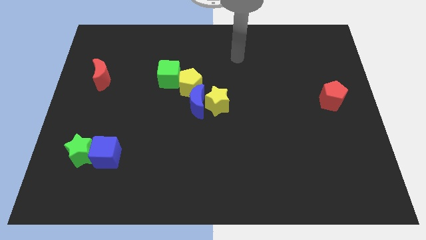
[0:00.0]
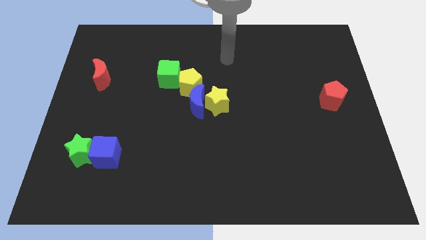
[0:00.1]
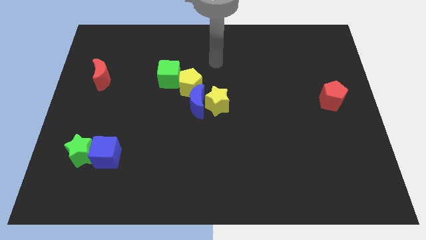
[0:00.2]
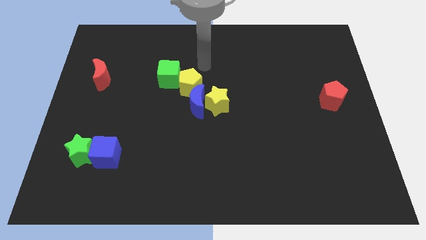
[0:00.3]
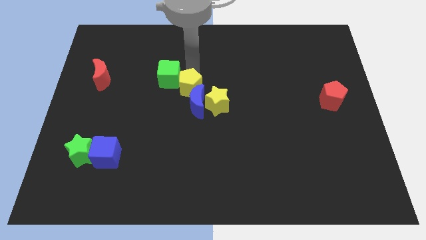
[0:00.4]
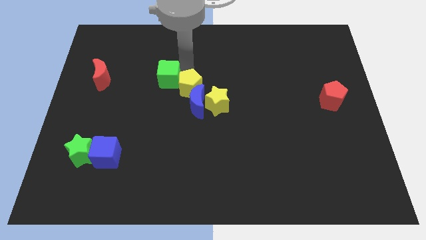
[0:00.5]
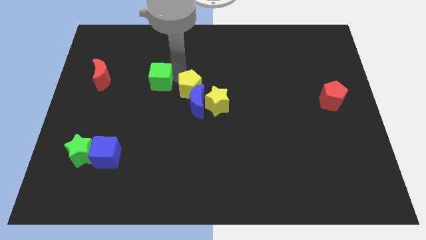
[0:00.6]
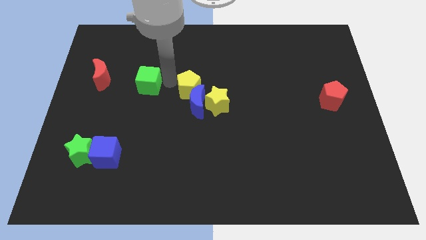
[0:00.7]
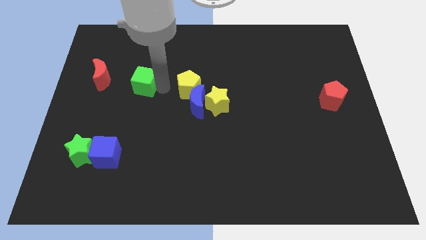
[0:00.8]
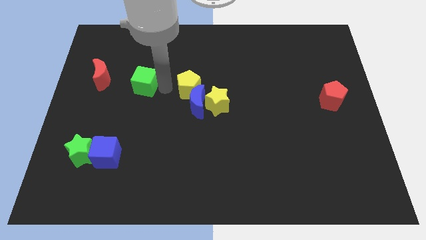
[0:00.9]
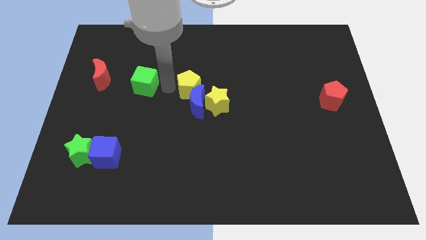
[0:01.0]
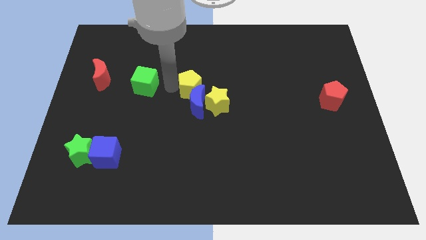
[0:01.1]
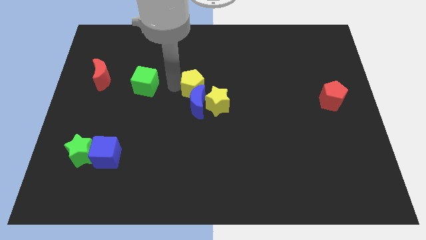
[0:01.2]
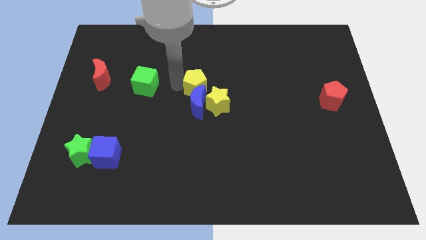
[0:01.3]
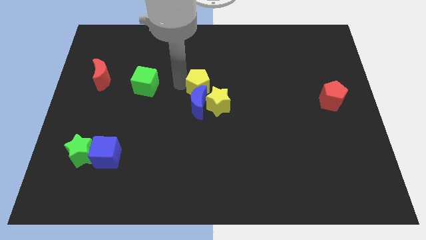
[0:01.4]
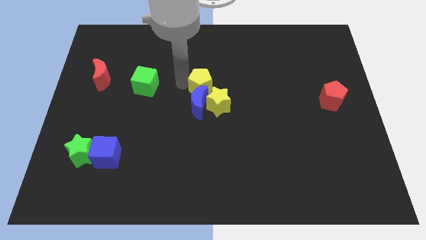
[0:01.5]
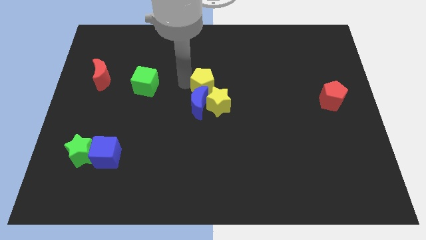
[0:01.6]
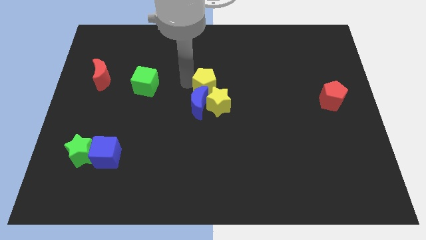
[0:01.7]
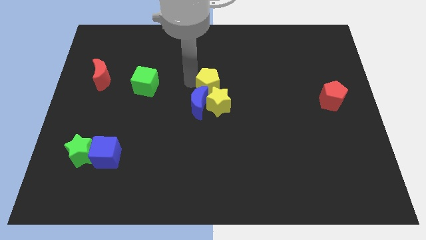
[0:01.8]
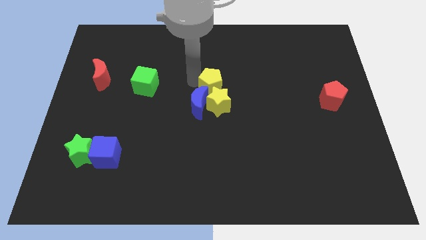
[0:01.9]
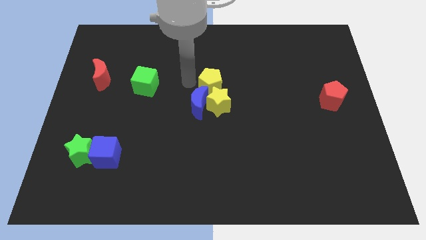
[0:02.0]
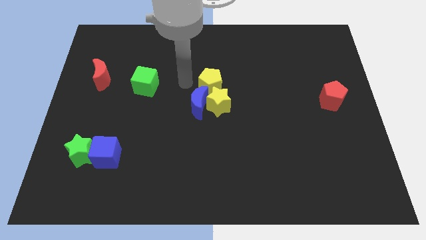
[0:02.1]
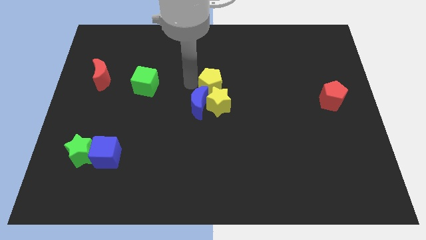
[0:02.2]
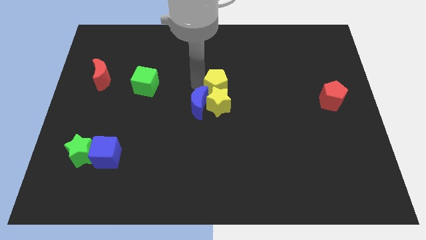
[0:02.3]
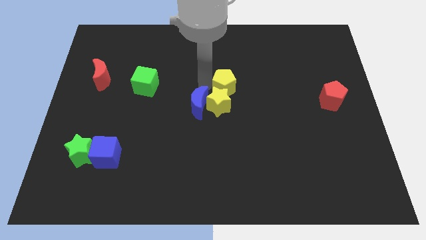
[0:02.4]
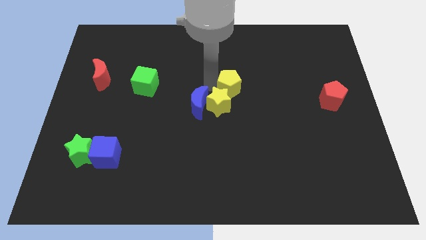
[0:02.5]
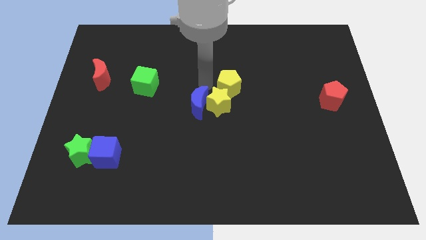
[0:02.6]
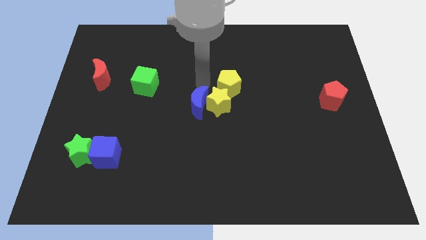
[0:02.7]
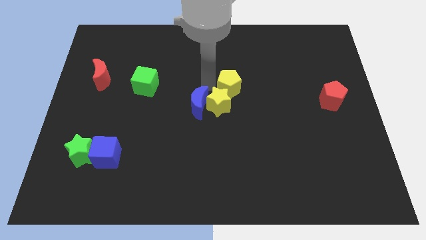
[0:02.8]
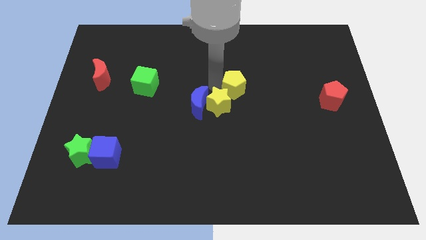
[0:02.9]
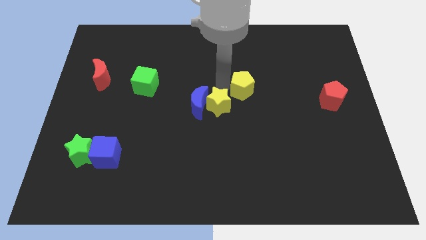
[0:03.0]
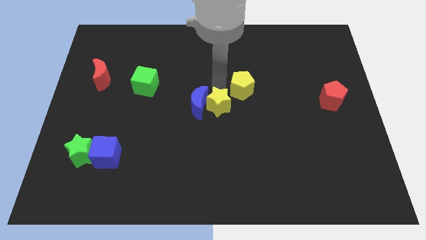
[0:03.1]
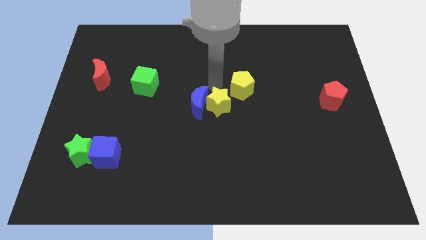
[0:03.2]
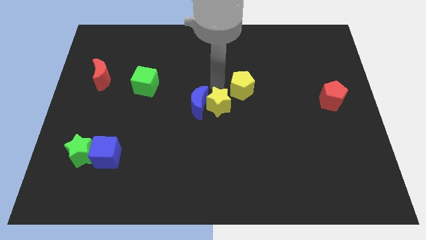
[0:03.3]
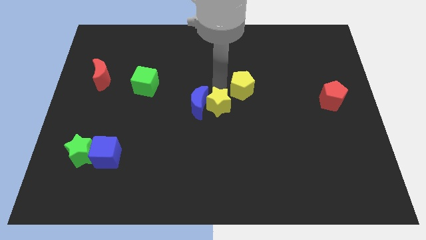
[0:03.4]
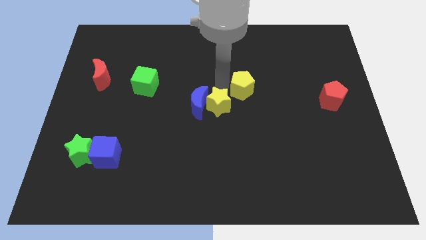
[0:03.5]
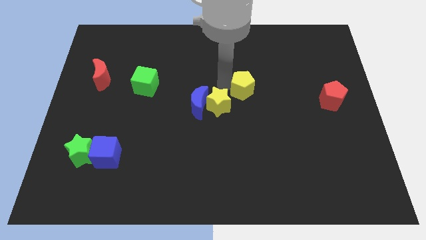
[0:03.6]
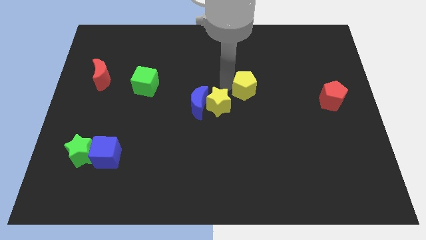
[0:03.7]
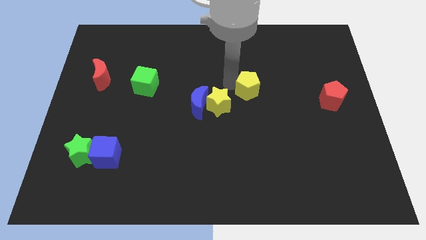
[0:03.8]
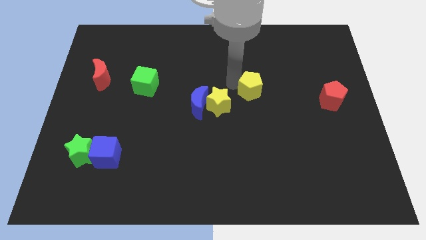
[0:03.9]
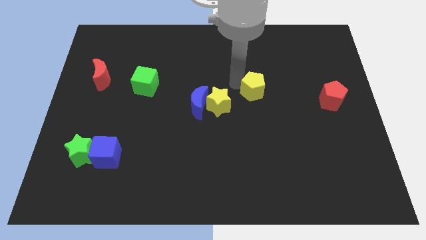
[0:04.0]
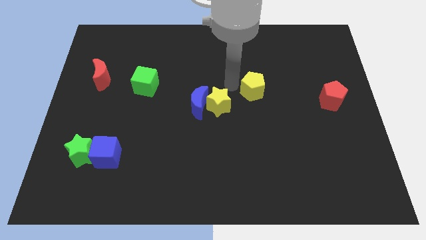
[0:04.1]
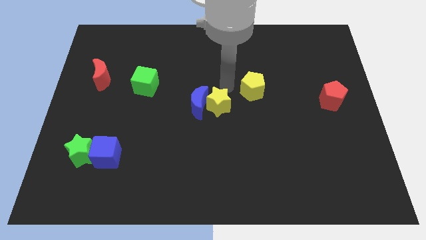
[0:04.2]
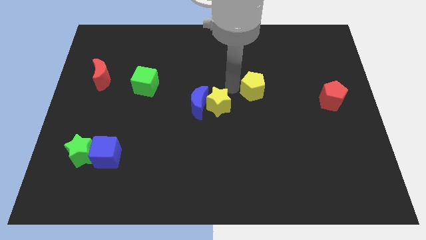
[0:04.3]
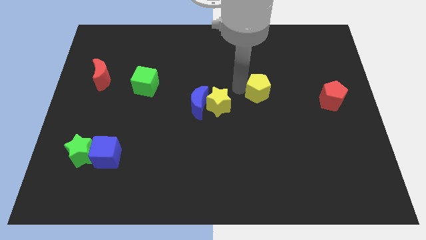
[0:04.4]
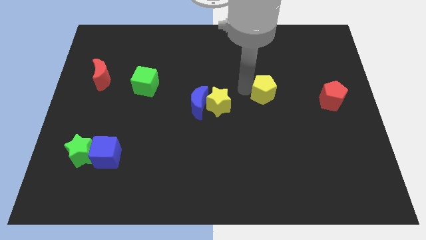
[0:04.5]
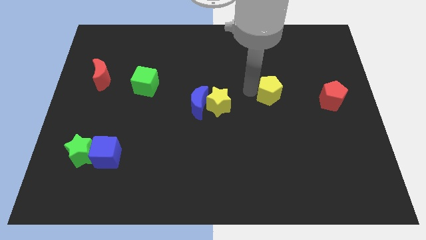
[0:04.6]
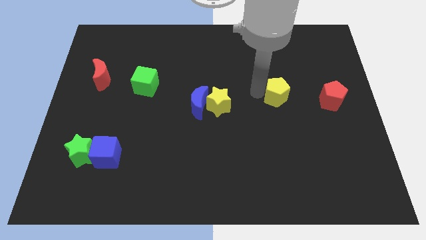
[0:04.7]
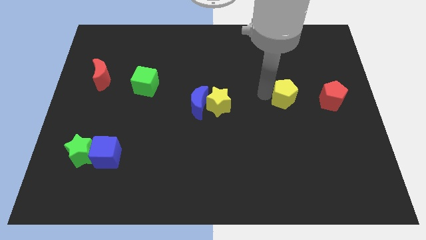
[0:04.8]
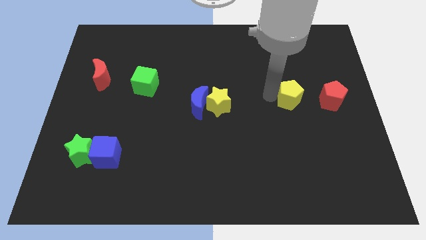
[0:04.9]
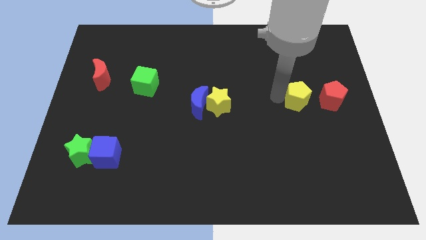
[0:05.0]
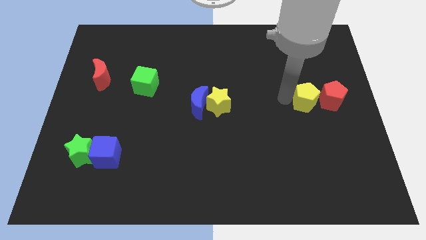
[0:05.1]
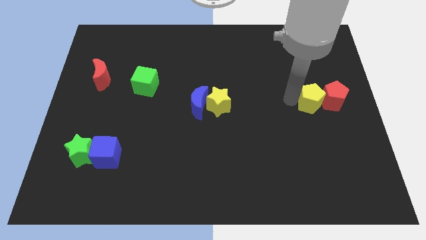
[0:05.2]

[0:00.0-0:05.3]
push the yellow pentagon towards the red pentagon

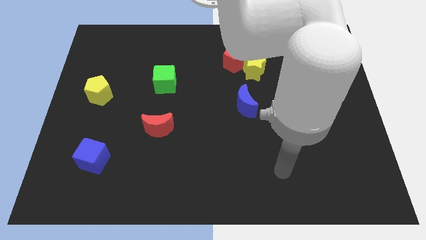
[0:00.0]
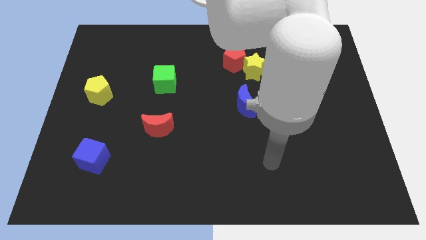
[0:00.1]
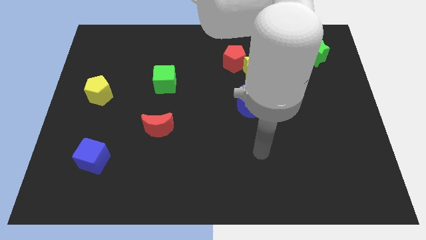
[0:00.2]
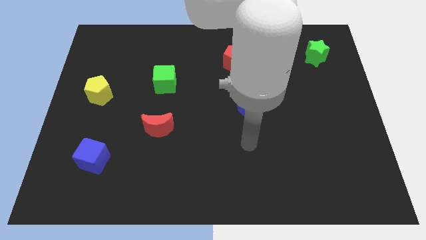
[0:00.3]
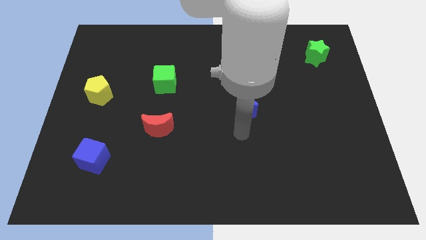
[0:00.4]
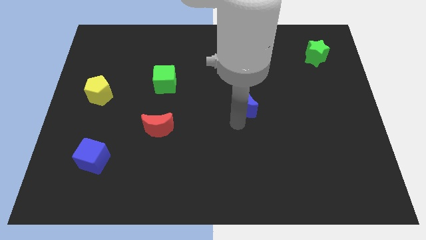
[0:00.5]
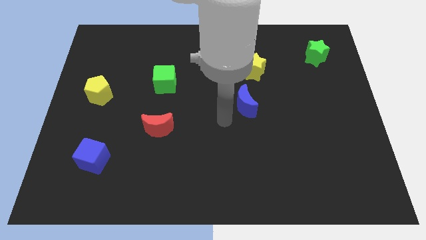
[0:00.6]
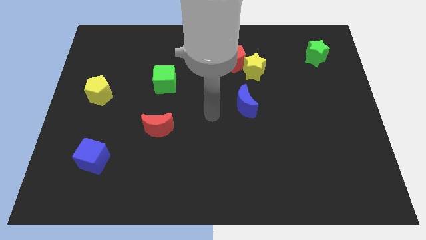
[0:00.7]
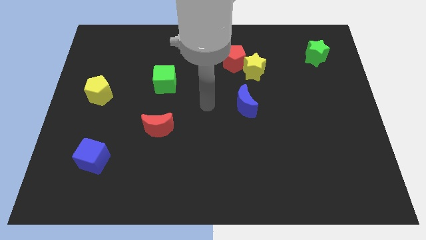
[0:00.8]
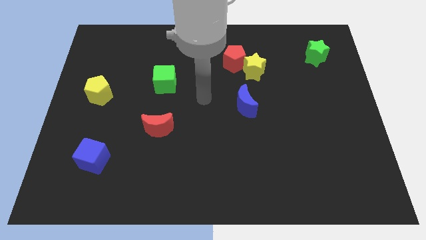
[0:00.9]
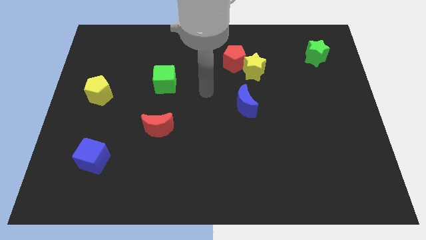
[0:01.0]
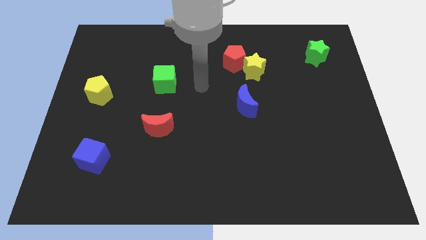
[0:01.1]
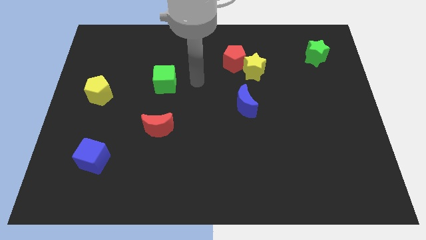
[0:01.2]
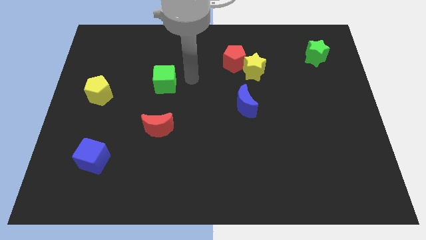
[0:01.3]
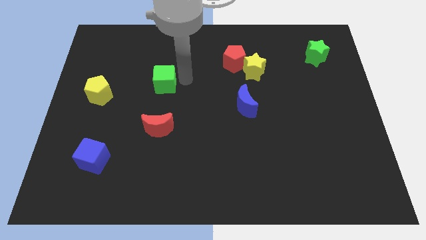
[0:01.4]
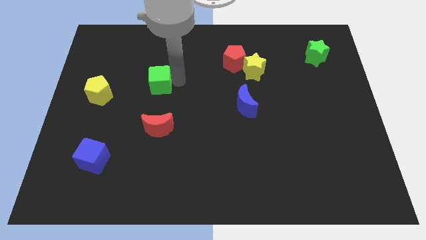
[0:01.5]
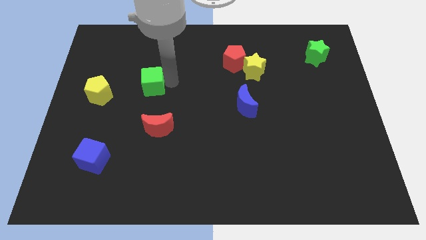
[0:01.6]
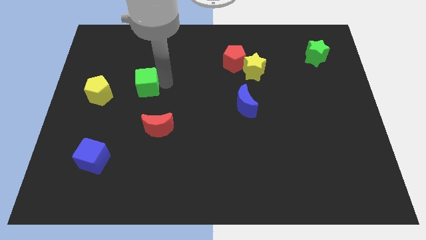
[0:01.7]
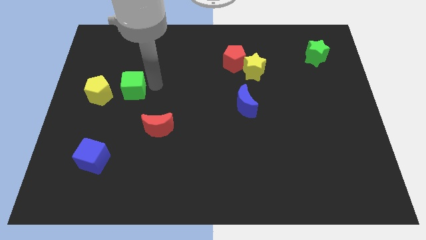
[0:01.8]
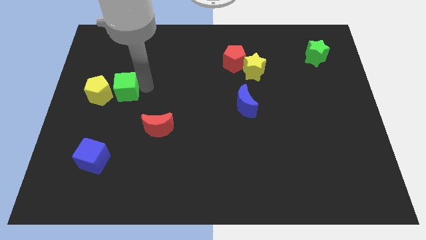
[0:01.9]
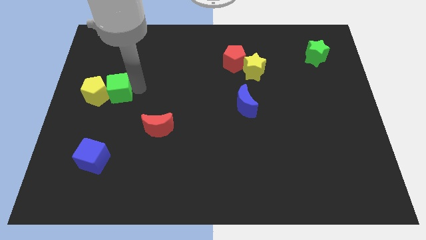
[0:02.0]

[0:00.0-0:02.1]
push the green cube next to the yellow pentagon
